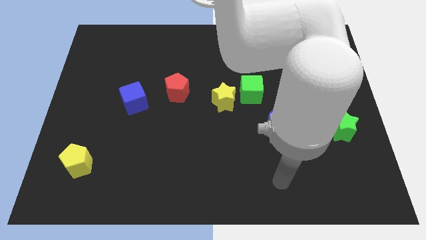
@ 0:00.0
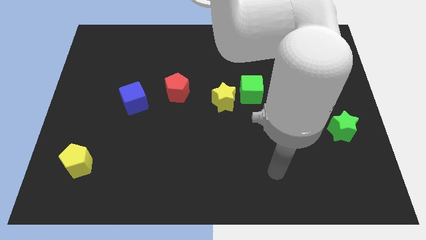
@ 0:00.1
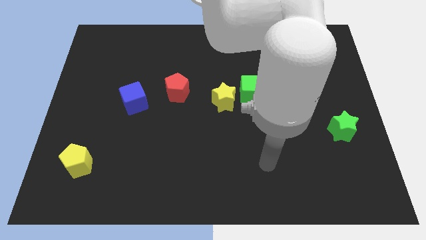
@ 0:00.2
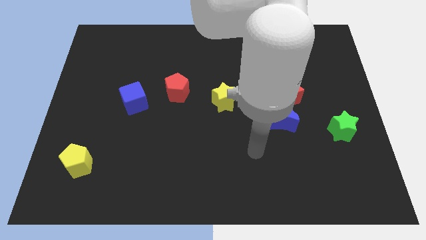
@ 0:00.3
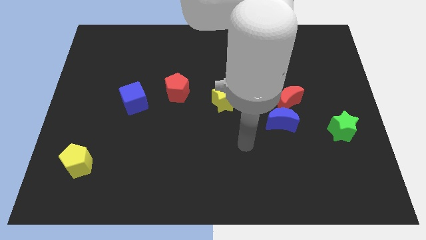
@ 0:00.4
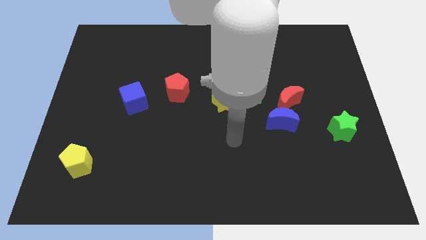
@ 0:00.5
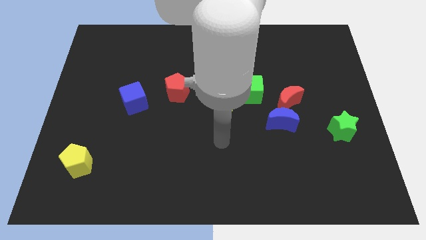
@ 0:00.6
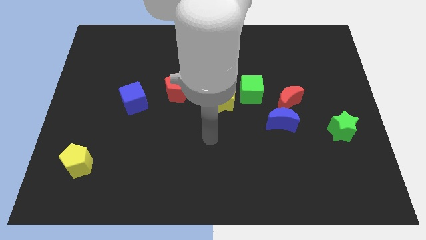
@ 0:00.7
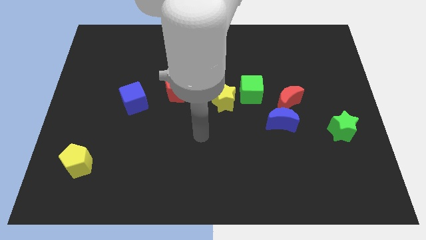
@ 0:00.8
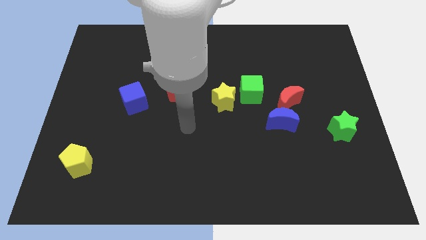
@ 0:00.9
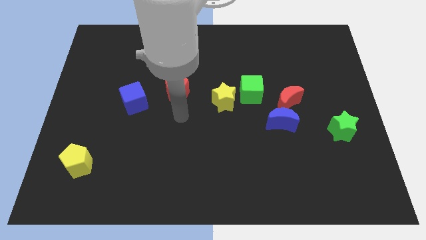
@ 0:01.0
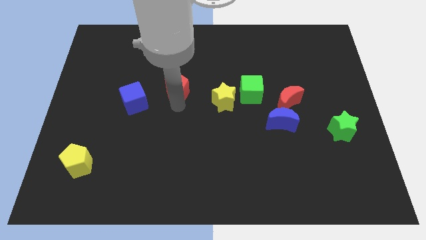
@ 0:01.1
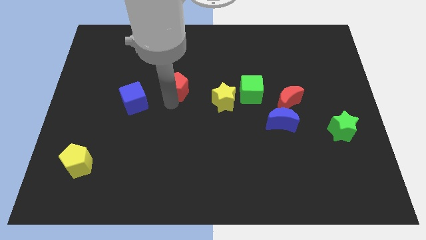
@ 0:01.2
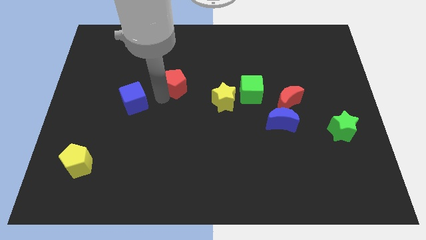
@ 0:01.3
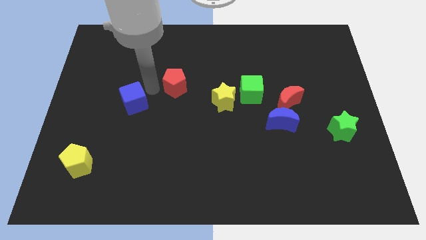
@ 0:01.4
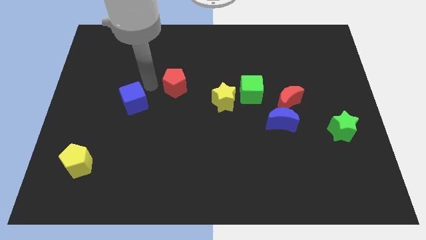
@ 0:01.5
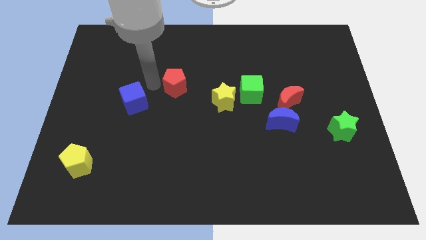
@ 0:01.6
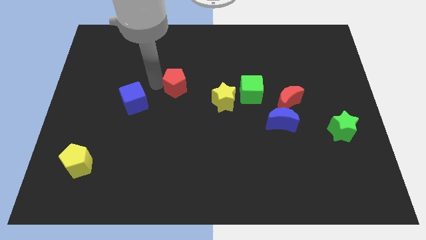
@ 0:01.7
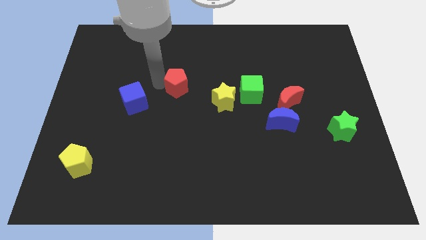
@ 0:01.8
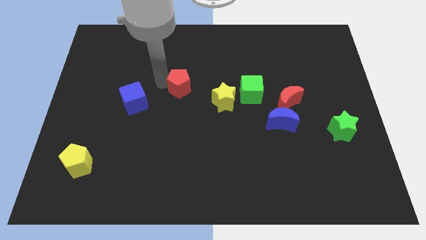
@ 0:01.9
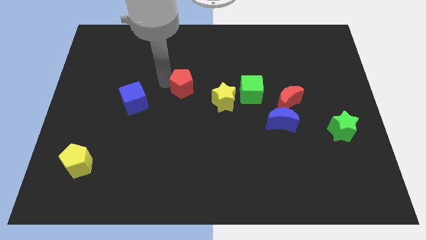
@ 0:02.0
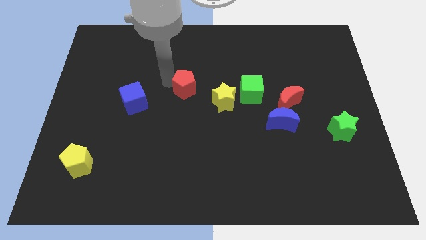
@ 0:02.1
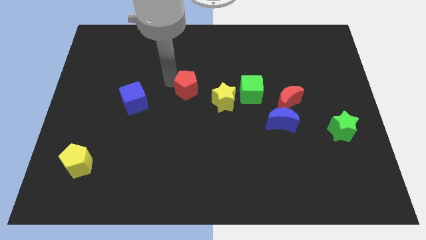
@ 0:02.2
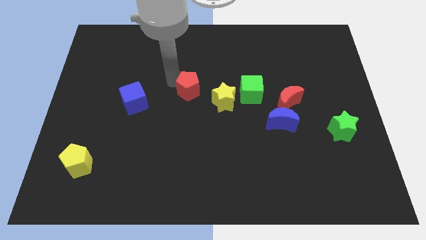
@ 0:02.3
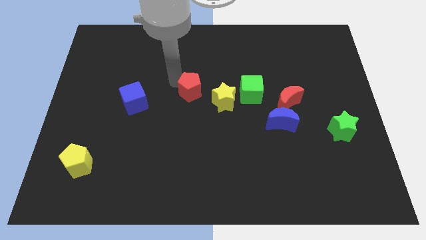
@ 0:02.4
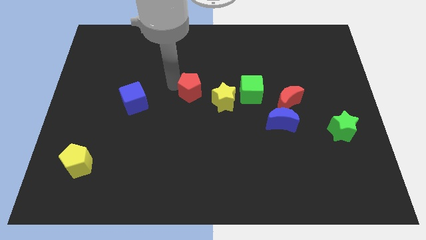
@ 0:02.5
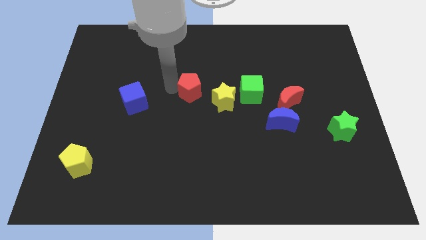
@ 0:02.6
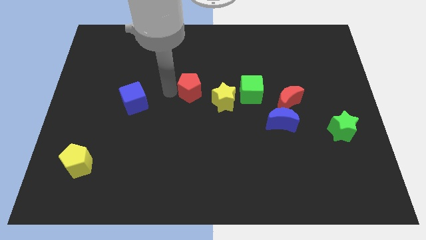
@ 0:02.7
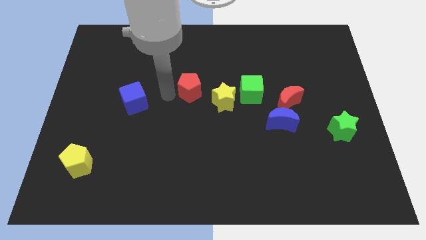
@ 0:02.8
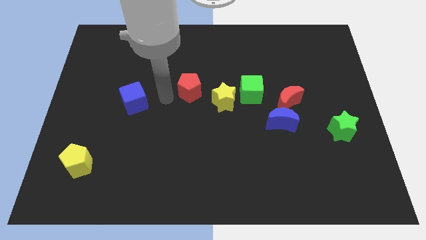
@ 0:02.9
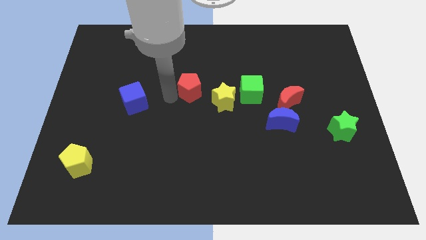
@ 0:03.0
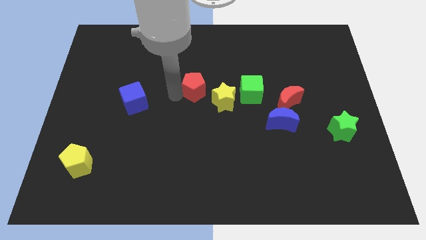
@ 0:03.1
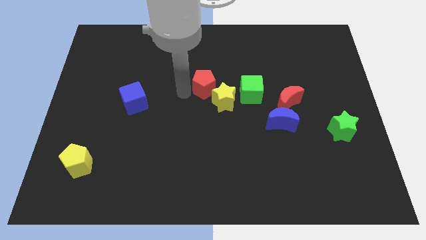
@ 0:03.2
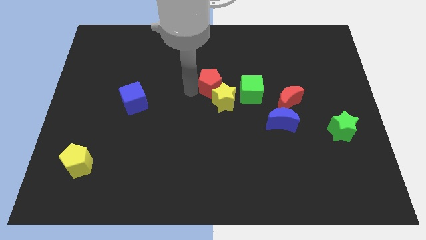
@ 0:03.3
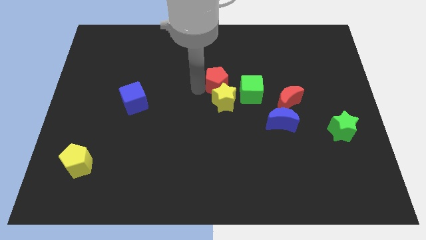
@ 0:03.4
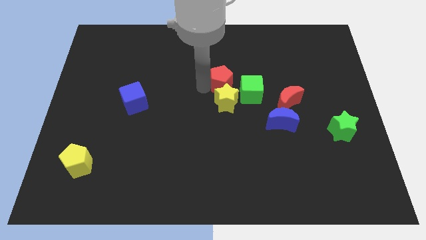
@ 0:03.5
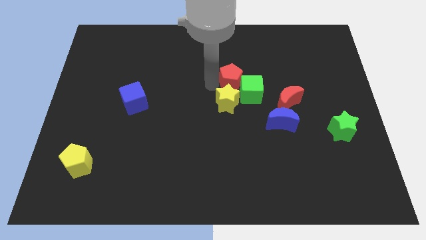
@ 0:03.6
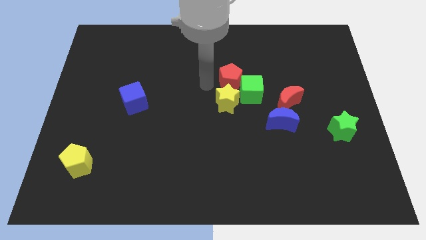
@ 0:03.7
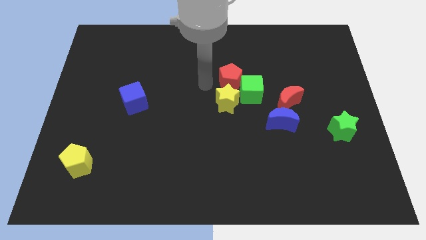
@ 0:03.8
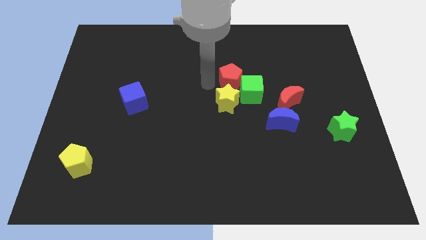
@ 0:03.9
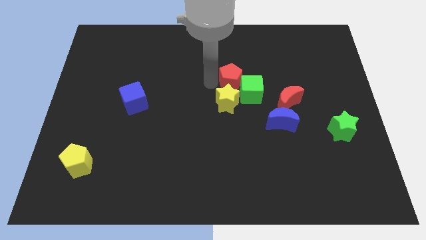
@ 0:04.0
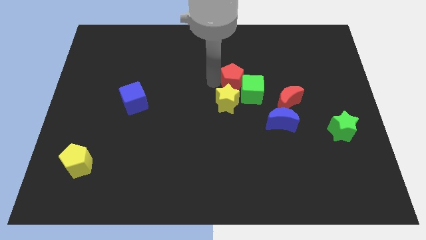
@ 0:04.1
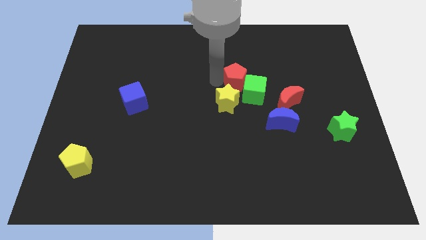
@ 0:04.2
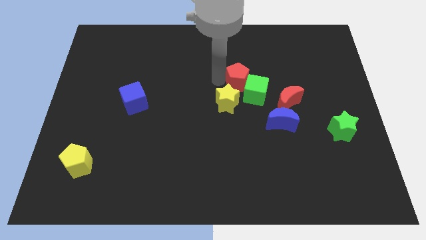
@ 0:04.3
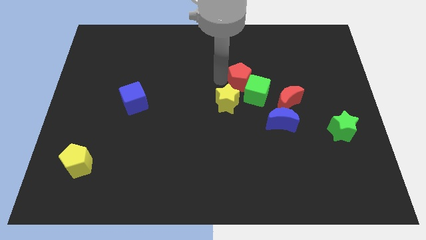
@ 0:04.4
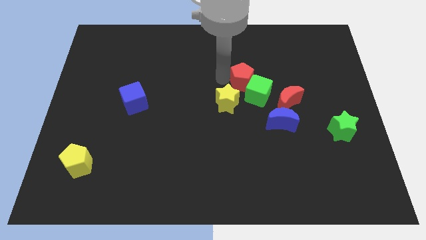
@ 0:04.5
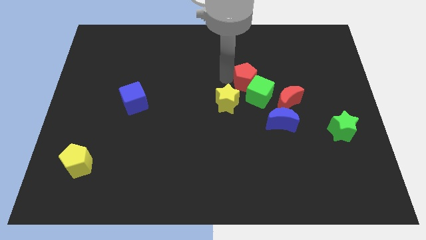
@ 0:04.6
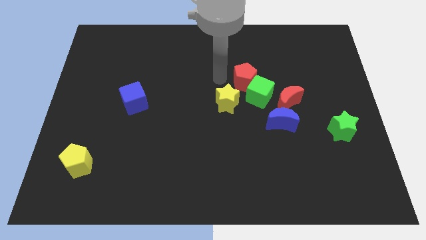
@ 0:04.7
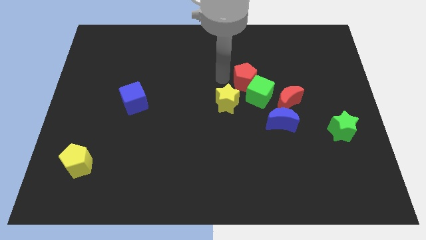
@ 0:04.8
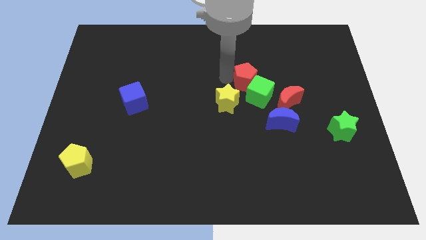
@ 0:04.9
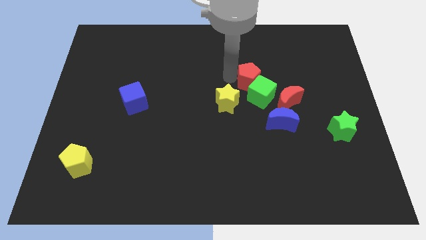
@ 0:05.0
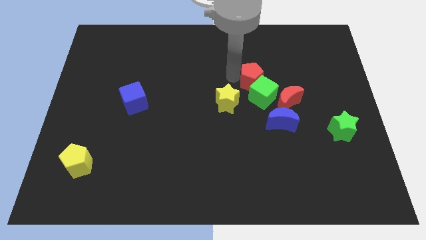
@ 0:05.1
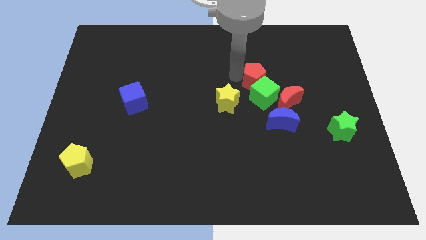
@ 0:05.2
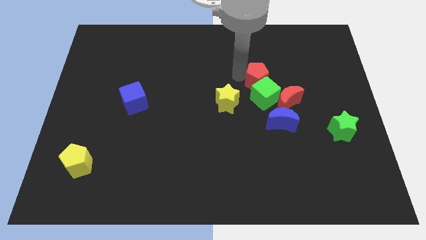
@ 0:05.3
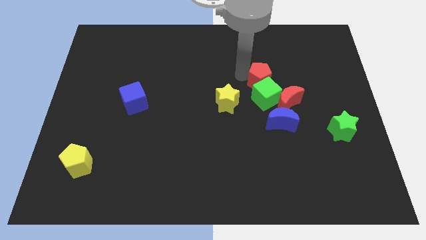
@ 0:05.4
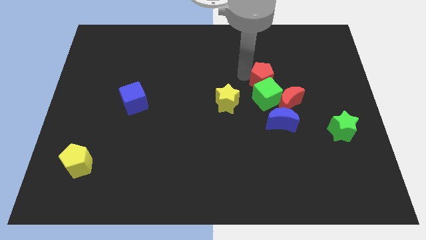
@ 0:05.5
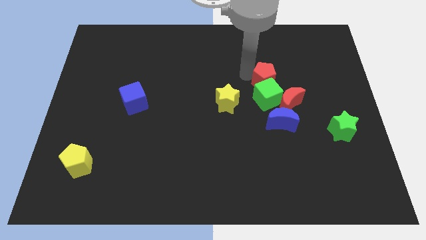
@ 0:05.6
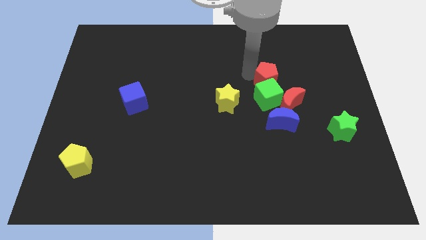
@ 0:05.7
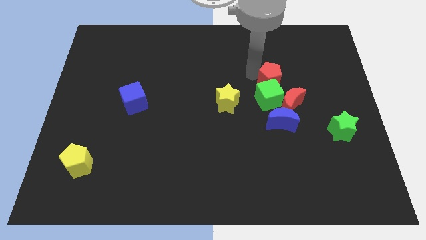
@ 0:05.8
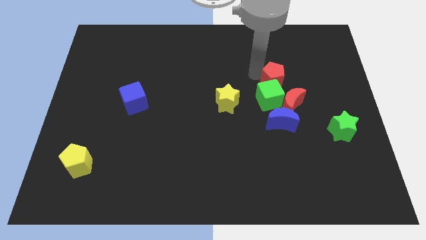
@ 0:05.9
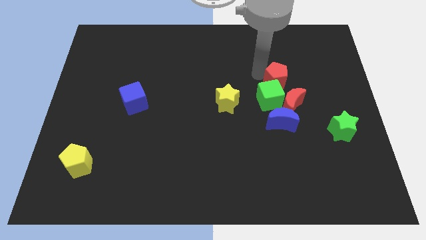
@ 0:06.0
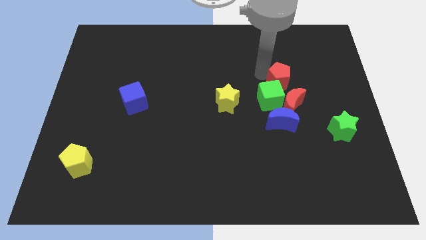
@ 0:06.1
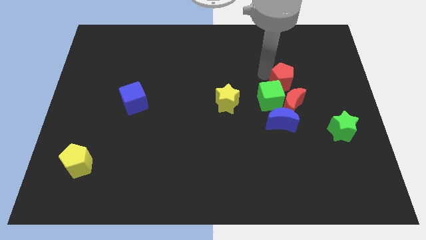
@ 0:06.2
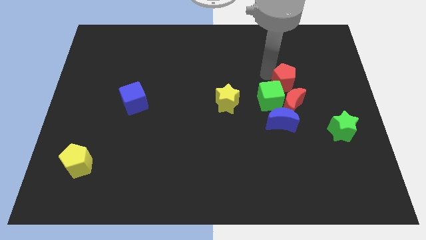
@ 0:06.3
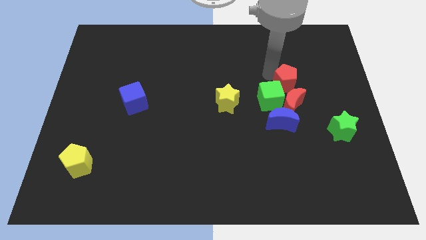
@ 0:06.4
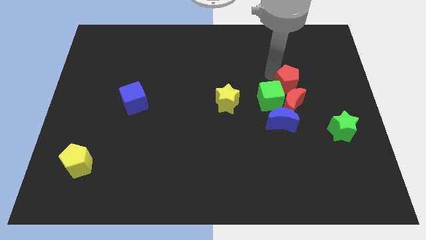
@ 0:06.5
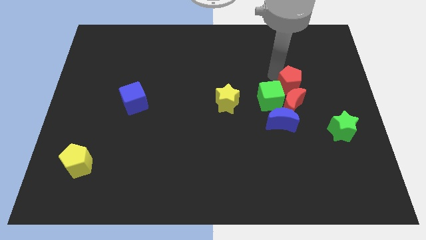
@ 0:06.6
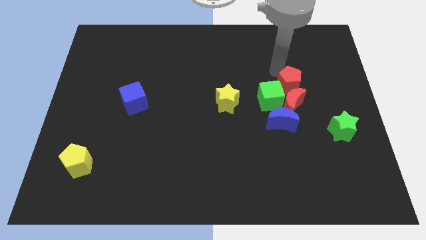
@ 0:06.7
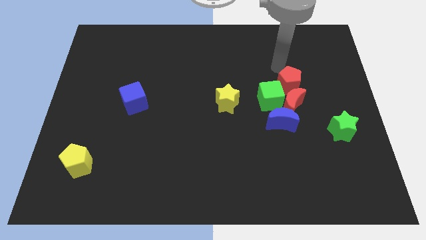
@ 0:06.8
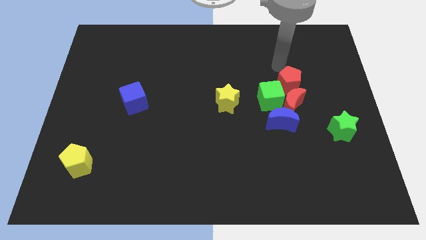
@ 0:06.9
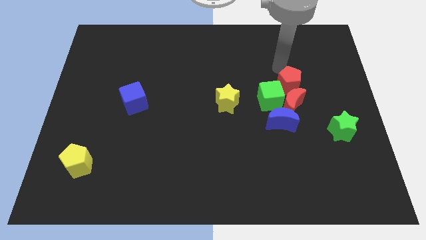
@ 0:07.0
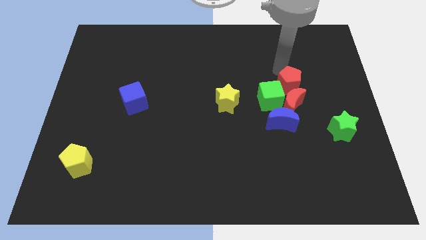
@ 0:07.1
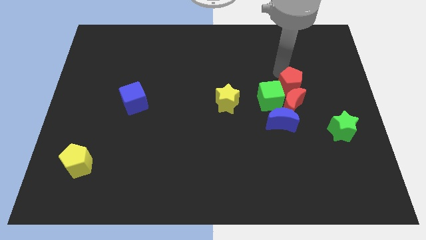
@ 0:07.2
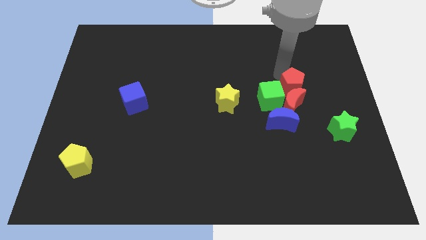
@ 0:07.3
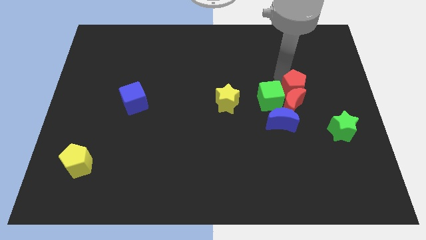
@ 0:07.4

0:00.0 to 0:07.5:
push the red pentagon to the top right side of the blue moon
